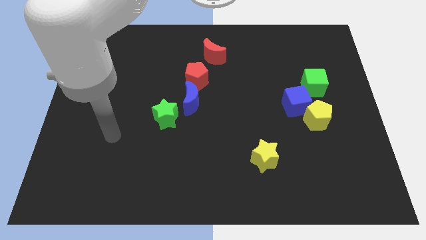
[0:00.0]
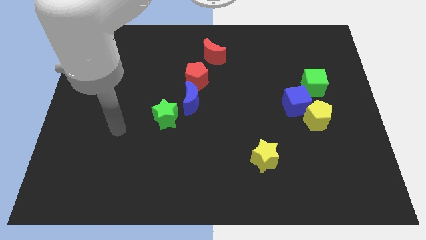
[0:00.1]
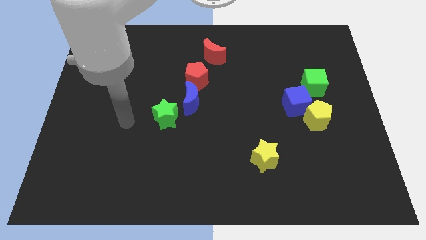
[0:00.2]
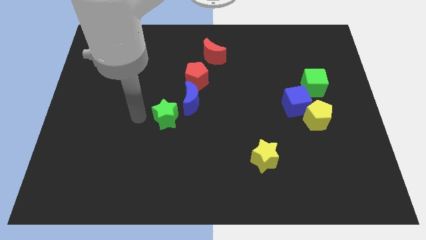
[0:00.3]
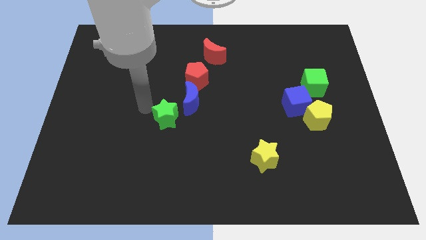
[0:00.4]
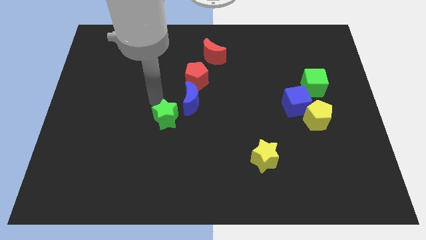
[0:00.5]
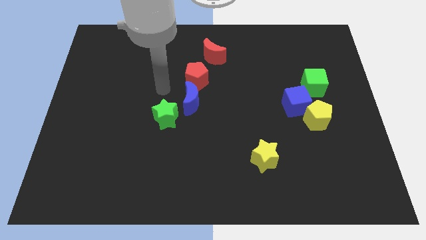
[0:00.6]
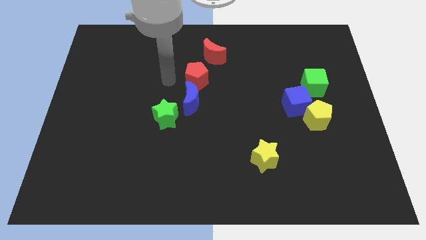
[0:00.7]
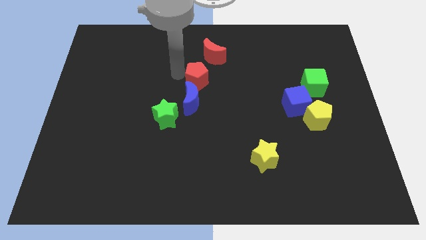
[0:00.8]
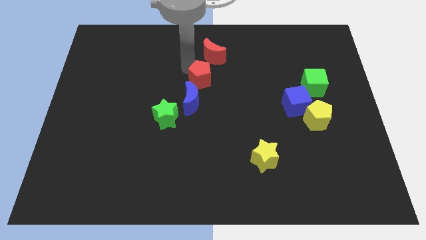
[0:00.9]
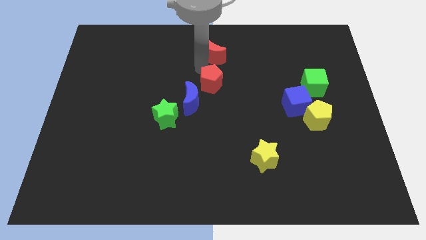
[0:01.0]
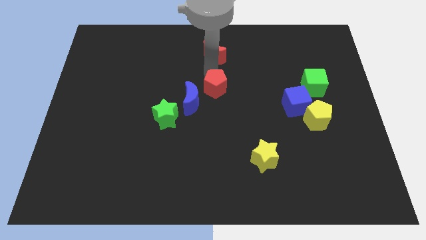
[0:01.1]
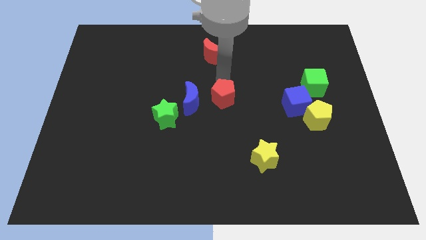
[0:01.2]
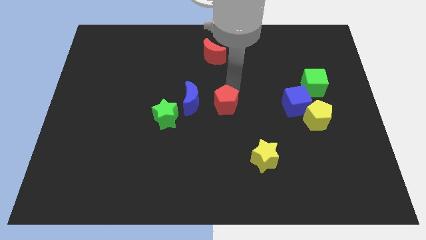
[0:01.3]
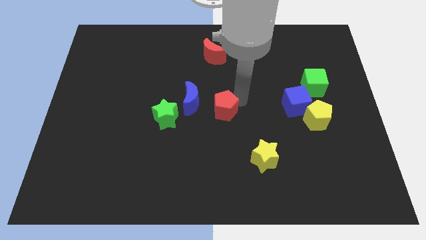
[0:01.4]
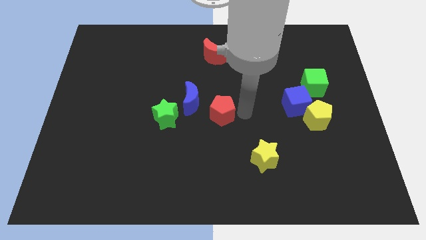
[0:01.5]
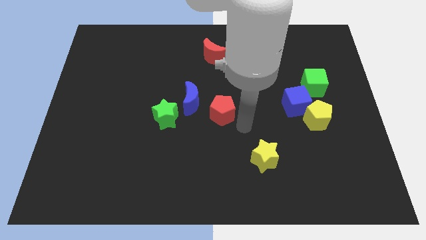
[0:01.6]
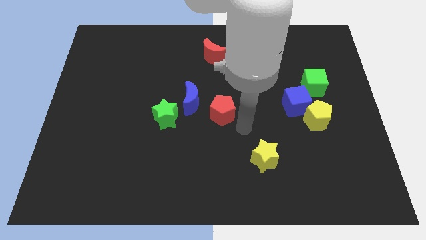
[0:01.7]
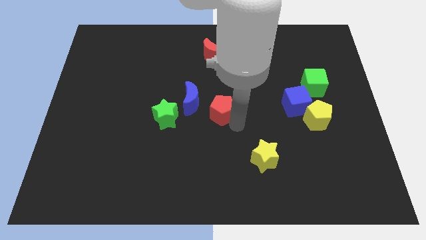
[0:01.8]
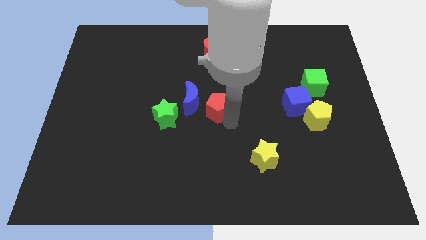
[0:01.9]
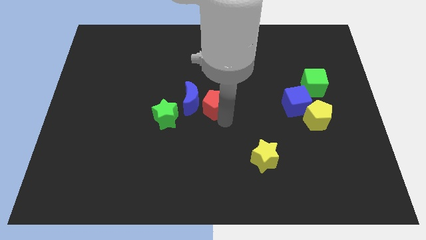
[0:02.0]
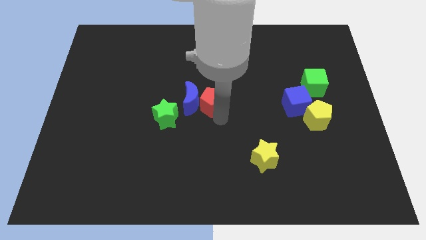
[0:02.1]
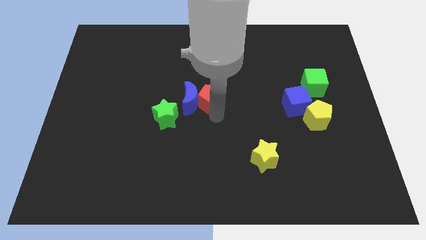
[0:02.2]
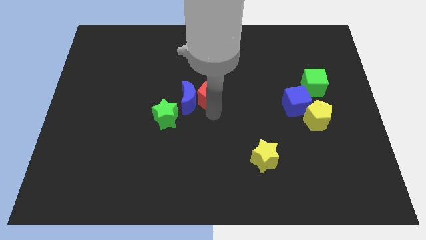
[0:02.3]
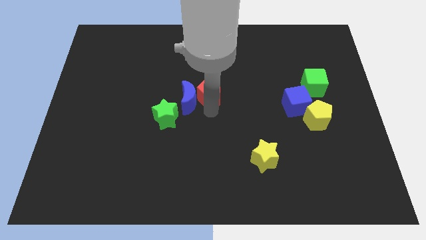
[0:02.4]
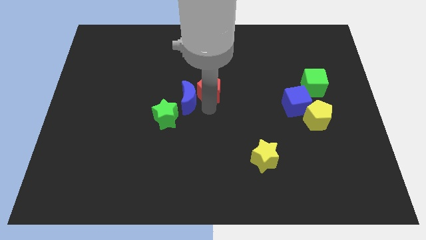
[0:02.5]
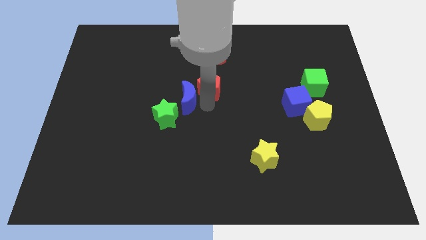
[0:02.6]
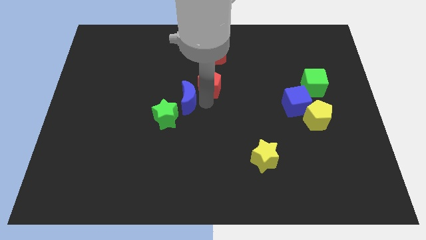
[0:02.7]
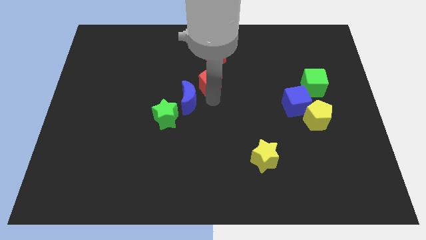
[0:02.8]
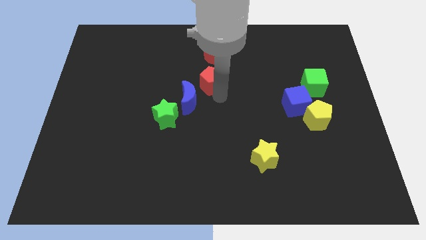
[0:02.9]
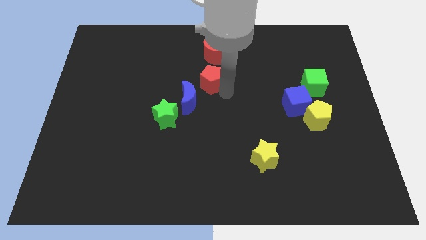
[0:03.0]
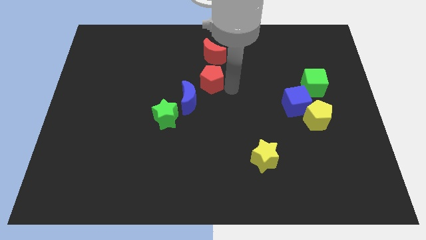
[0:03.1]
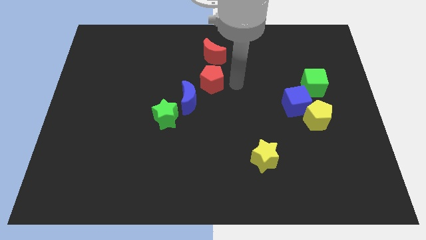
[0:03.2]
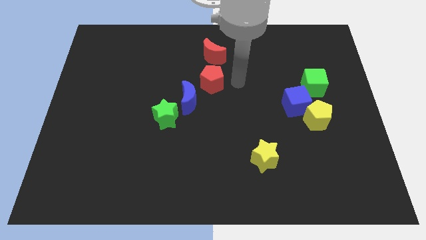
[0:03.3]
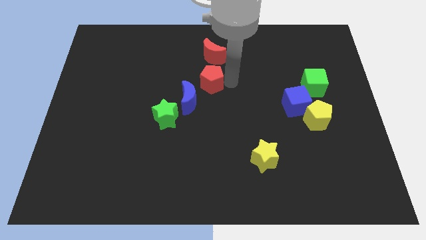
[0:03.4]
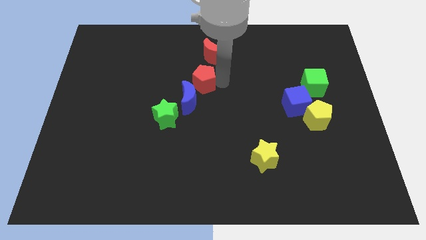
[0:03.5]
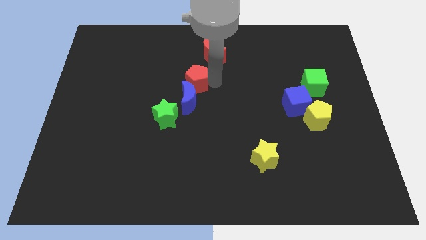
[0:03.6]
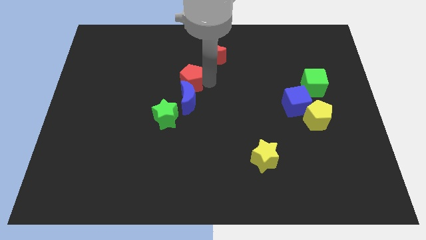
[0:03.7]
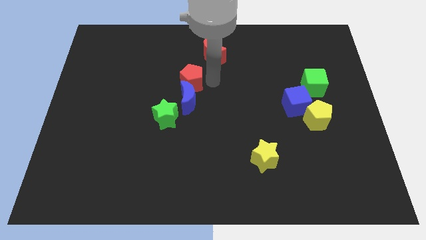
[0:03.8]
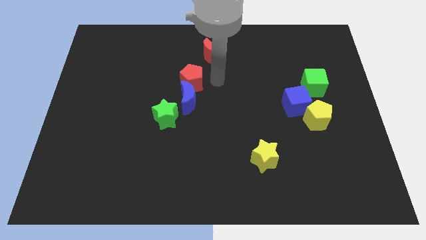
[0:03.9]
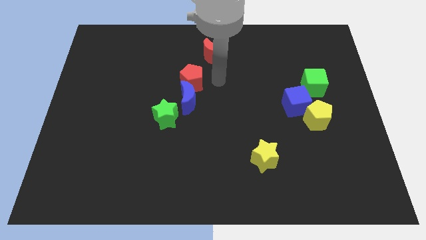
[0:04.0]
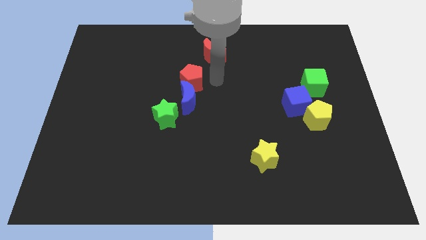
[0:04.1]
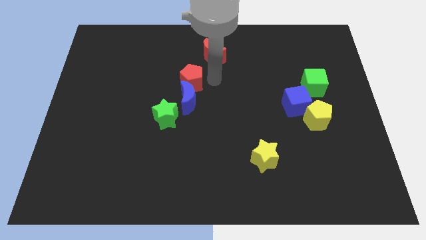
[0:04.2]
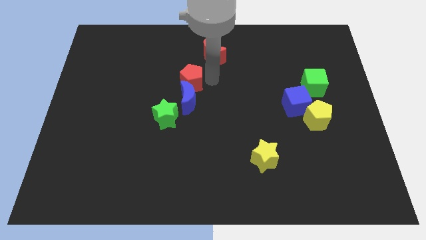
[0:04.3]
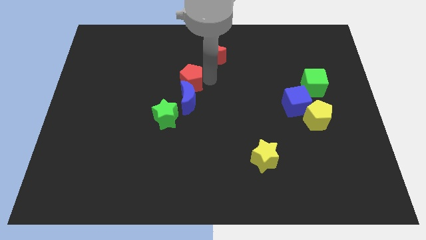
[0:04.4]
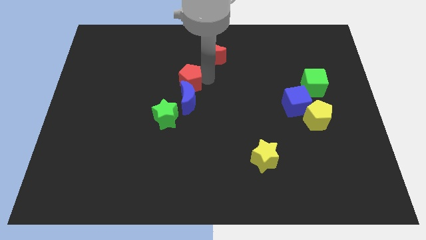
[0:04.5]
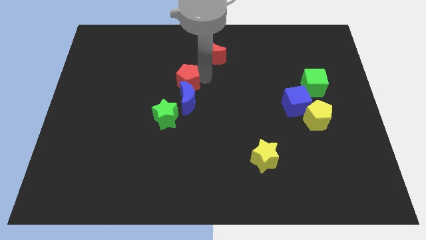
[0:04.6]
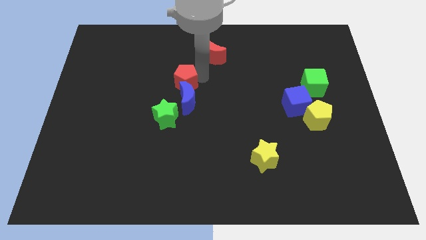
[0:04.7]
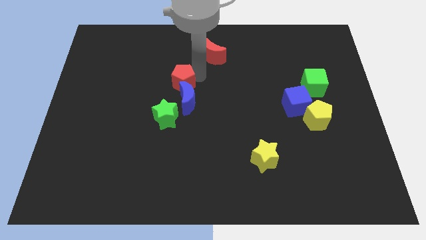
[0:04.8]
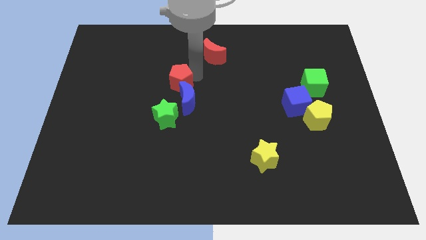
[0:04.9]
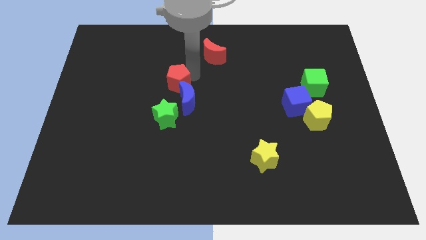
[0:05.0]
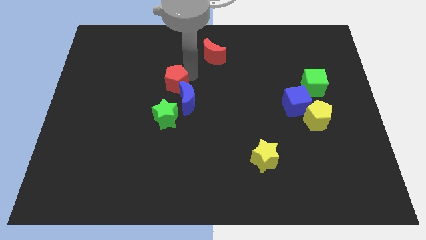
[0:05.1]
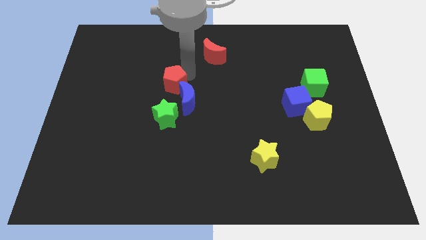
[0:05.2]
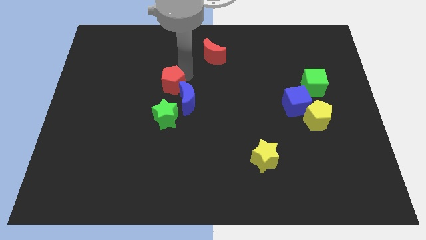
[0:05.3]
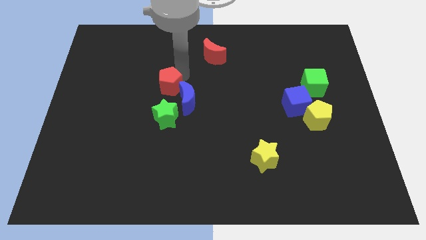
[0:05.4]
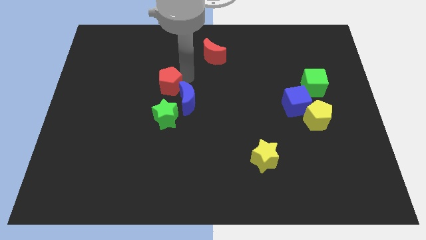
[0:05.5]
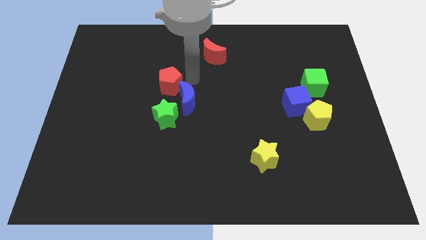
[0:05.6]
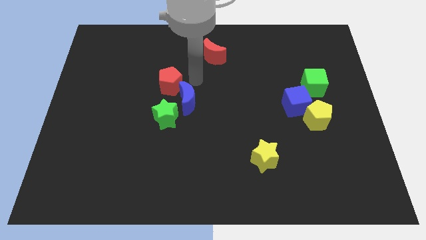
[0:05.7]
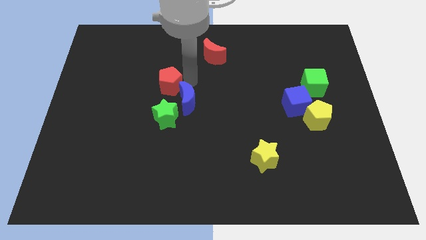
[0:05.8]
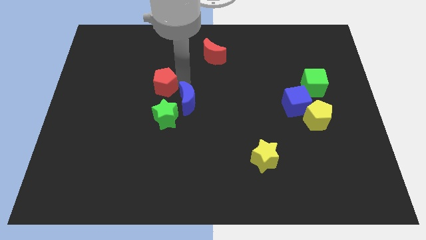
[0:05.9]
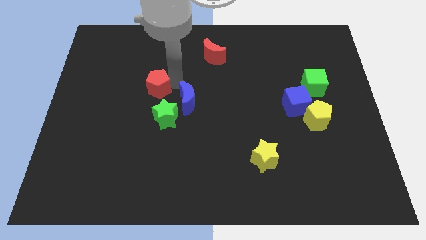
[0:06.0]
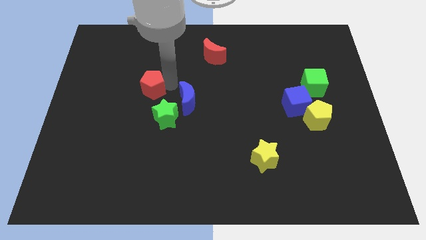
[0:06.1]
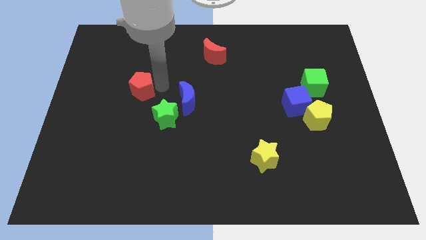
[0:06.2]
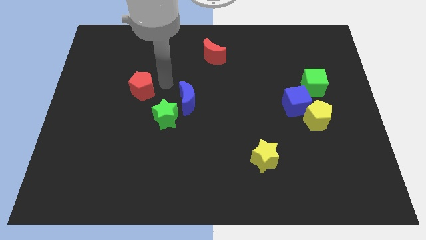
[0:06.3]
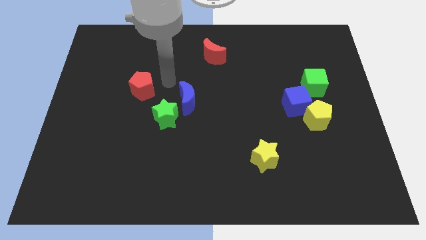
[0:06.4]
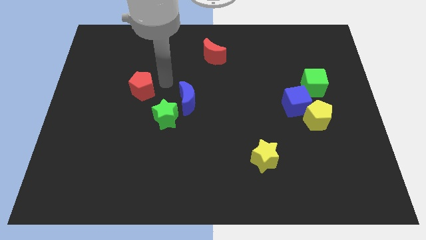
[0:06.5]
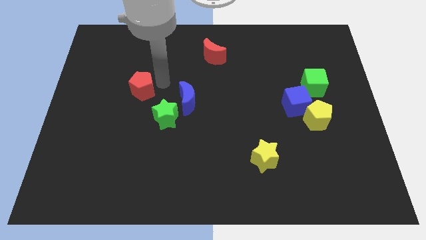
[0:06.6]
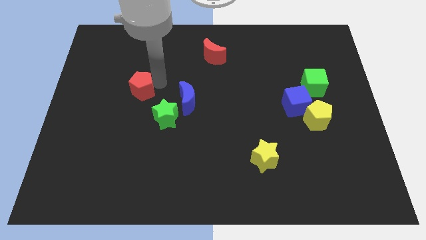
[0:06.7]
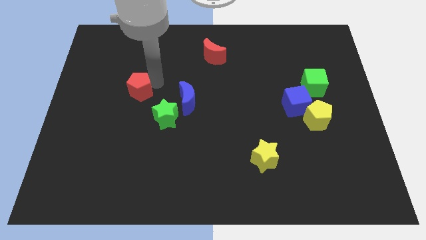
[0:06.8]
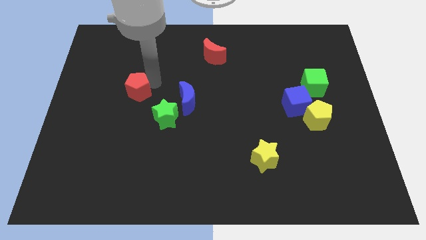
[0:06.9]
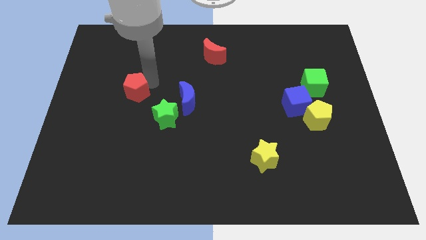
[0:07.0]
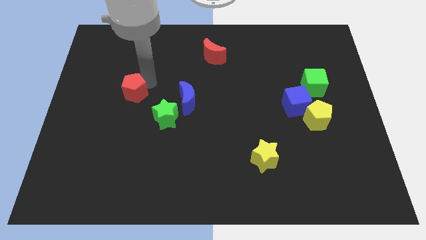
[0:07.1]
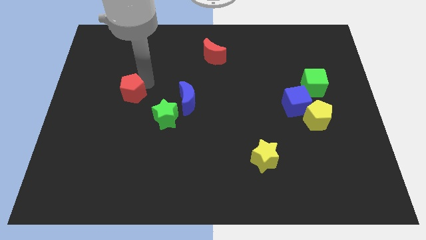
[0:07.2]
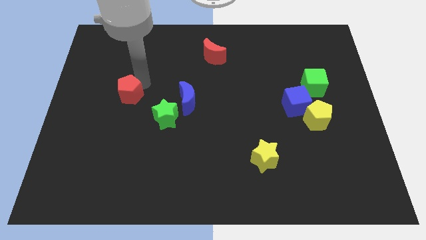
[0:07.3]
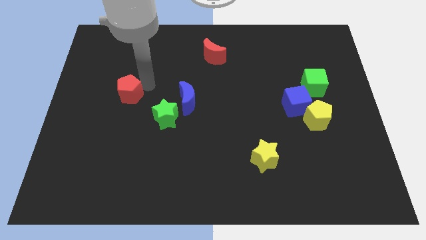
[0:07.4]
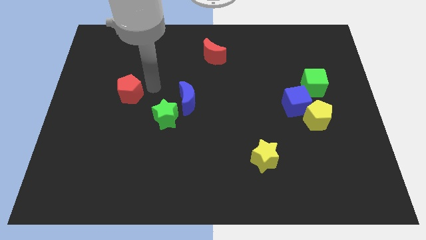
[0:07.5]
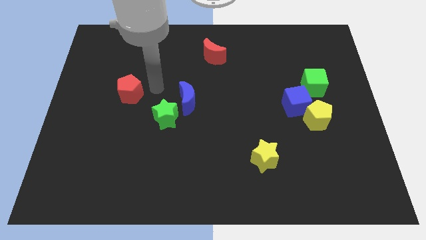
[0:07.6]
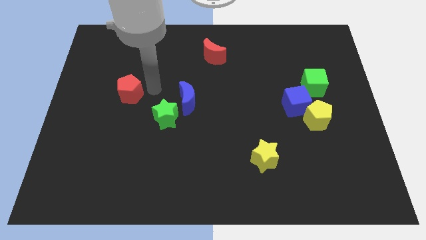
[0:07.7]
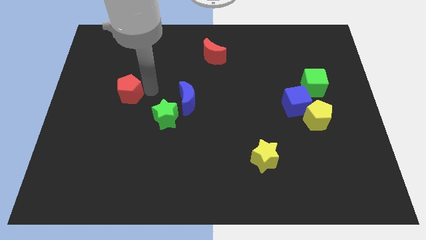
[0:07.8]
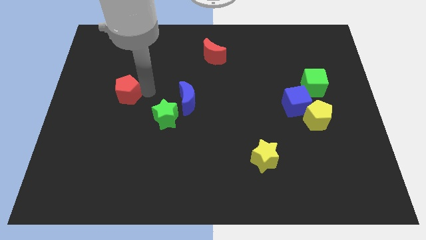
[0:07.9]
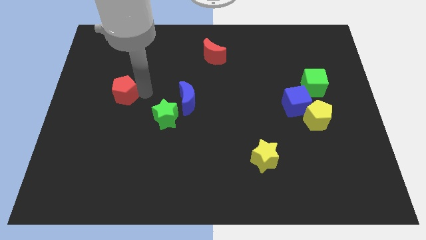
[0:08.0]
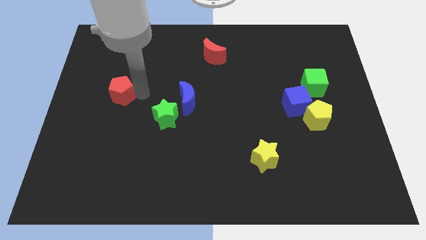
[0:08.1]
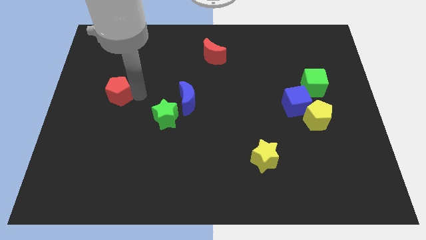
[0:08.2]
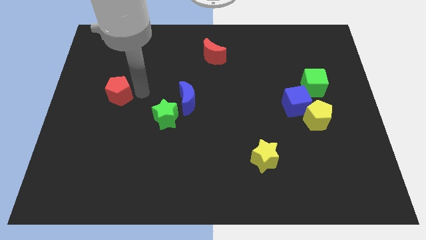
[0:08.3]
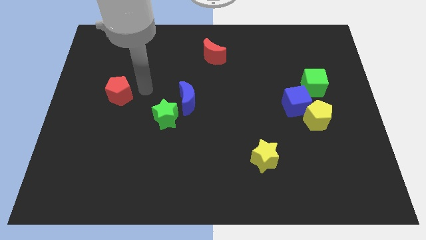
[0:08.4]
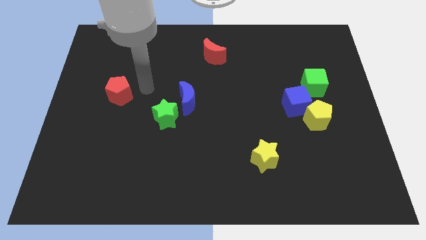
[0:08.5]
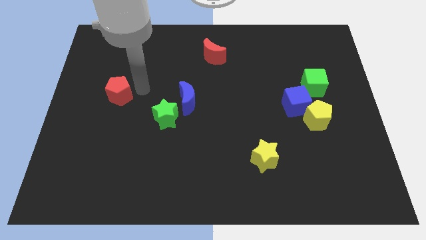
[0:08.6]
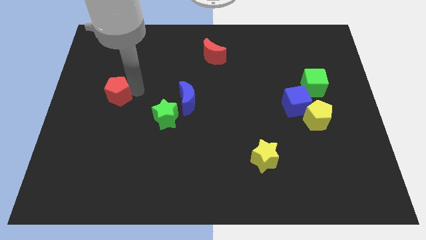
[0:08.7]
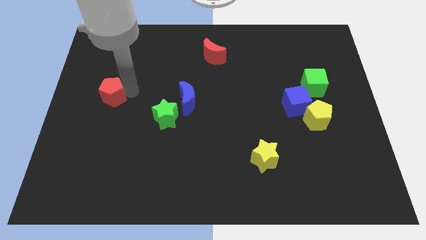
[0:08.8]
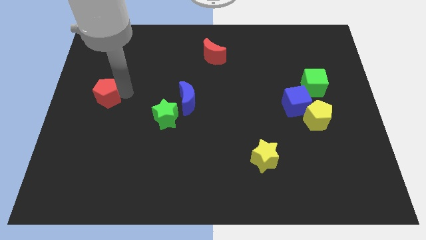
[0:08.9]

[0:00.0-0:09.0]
slide the red pentagon to the left side of the board
